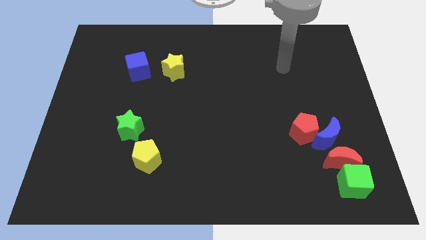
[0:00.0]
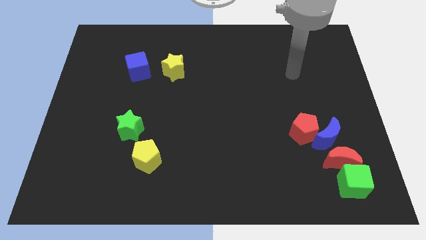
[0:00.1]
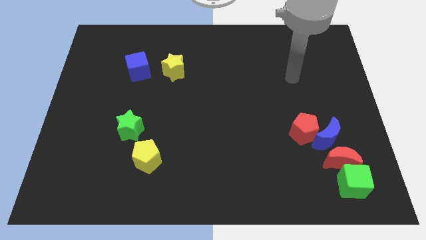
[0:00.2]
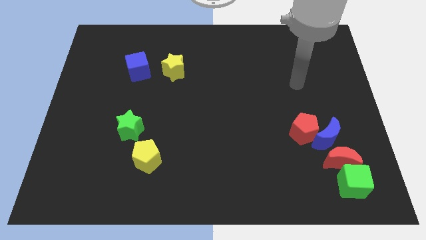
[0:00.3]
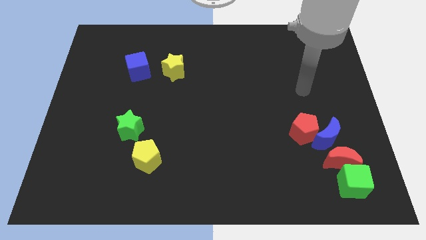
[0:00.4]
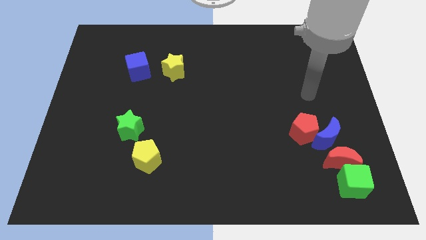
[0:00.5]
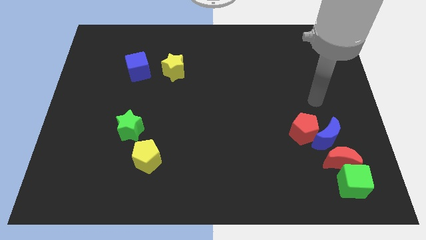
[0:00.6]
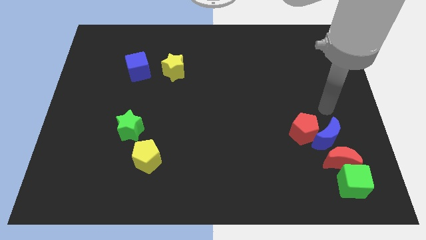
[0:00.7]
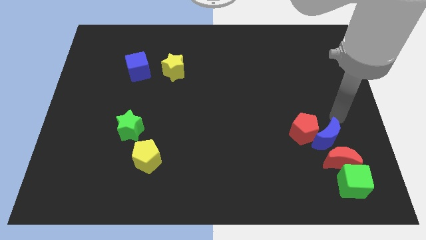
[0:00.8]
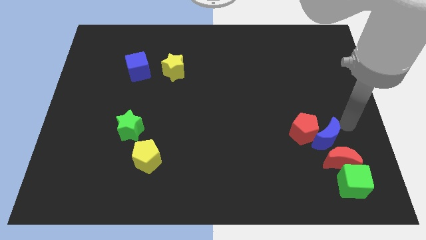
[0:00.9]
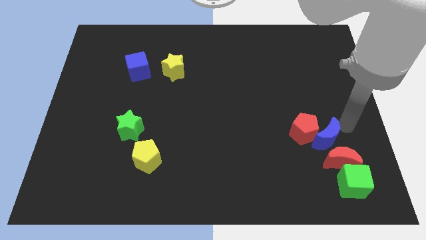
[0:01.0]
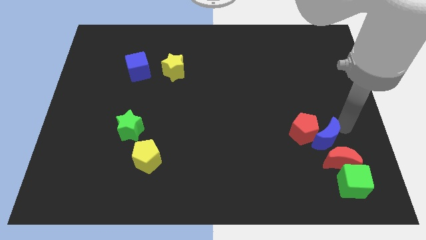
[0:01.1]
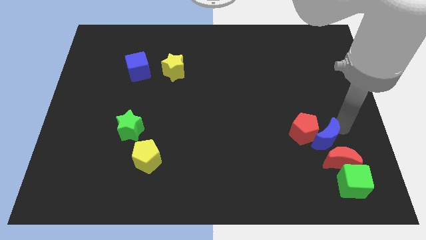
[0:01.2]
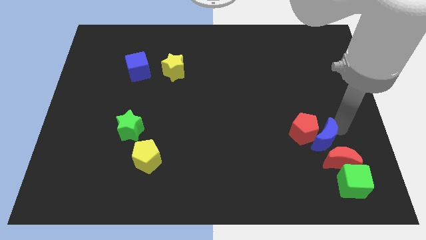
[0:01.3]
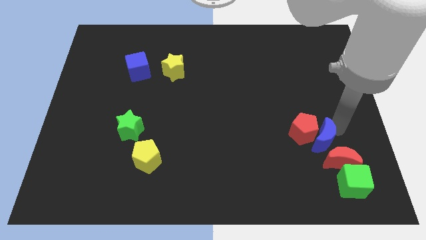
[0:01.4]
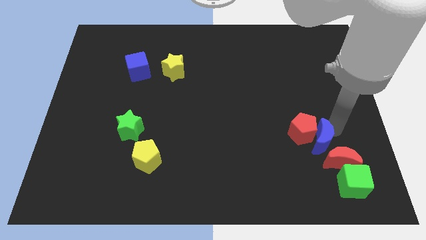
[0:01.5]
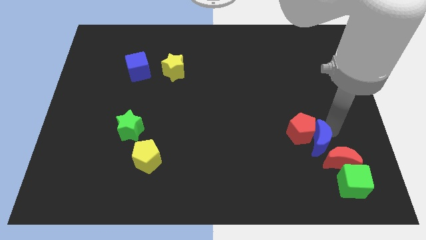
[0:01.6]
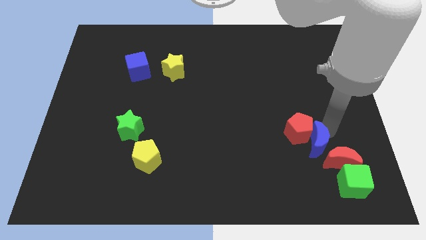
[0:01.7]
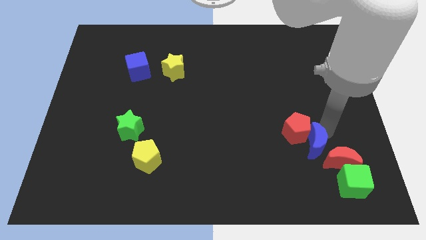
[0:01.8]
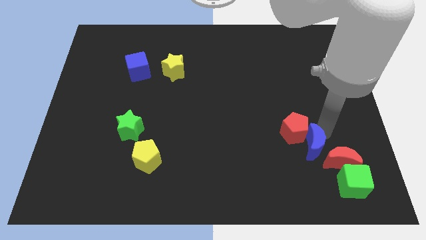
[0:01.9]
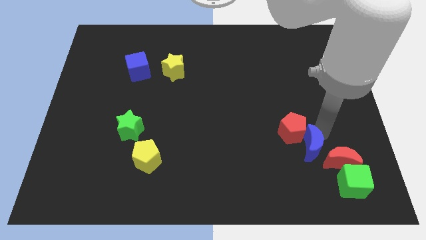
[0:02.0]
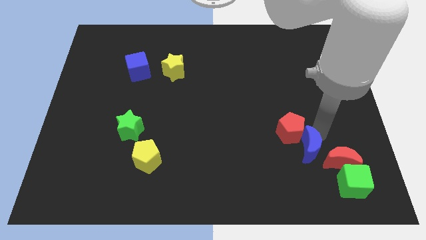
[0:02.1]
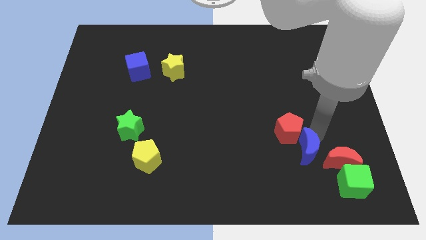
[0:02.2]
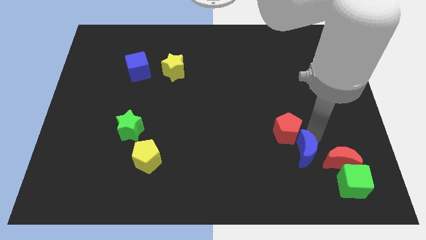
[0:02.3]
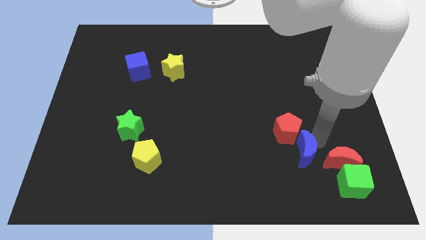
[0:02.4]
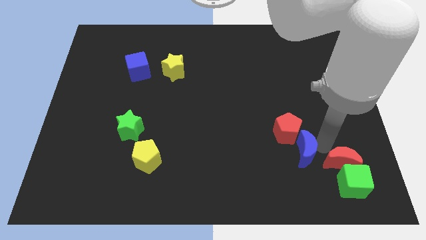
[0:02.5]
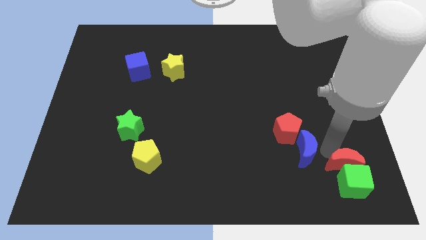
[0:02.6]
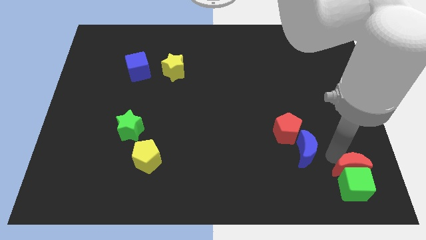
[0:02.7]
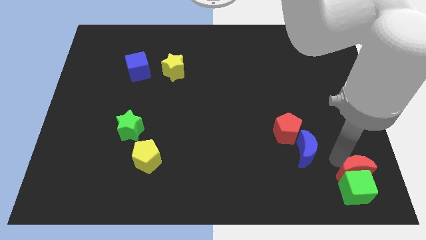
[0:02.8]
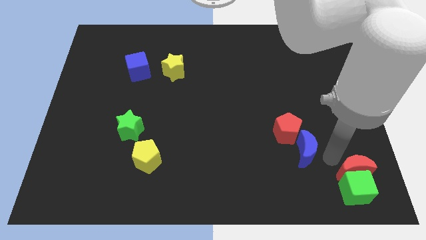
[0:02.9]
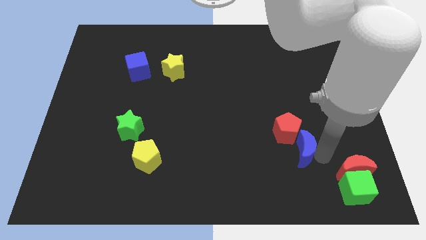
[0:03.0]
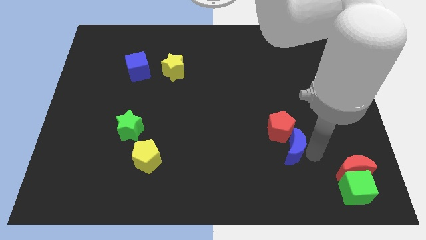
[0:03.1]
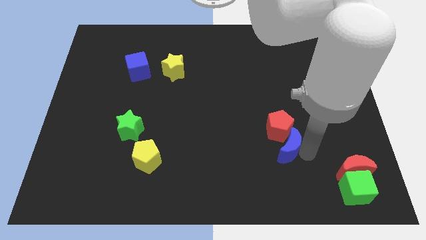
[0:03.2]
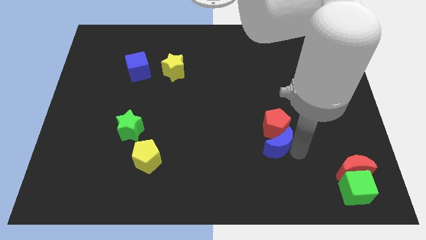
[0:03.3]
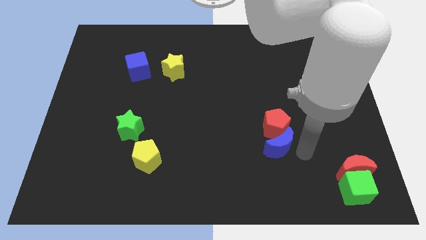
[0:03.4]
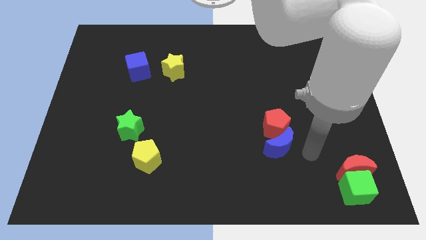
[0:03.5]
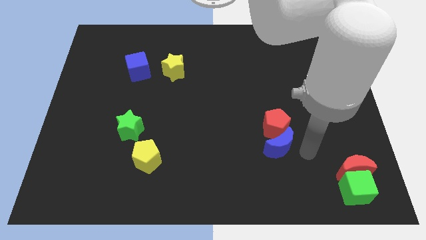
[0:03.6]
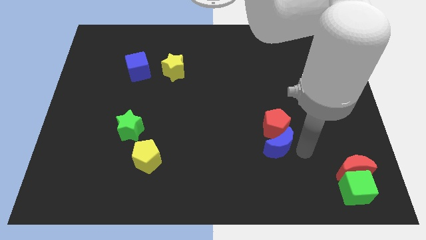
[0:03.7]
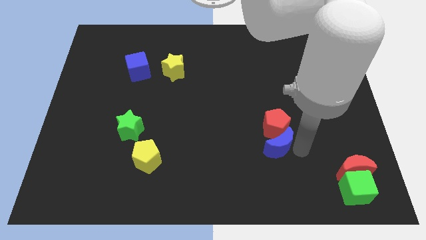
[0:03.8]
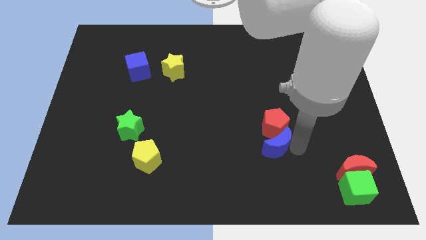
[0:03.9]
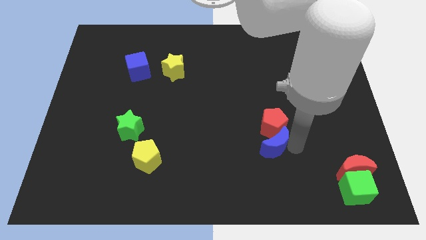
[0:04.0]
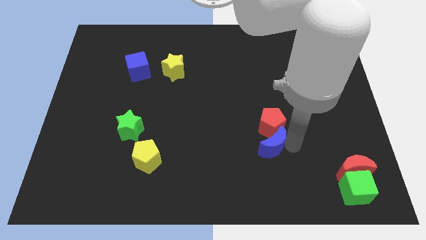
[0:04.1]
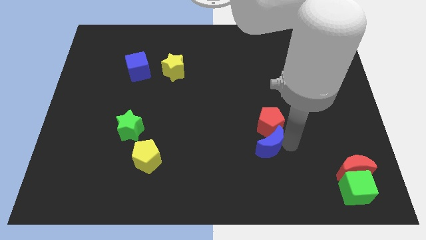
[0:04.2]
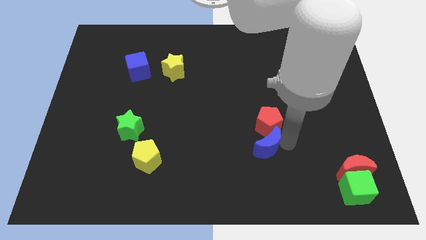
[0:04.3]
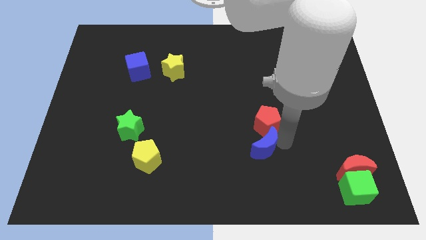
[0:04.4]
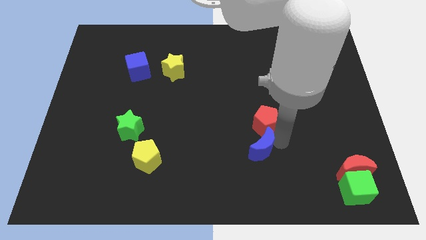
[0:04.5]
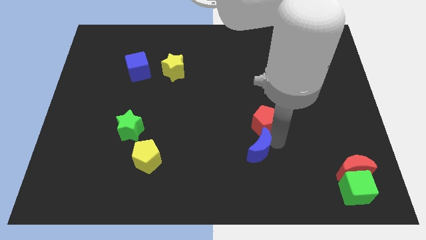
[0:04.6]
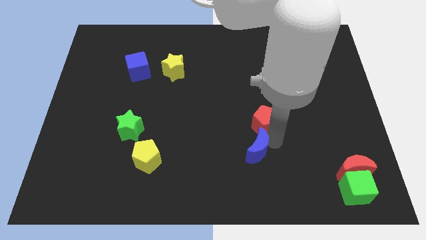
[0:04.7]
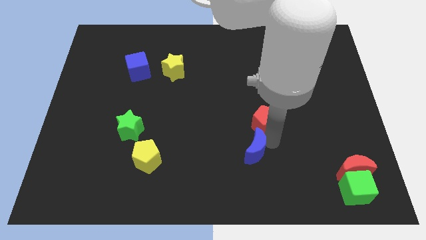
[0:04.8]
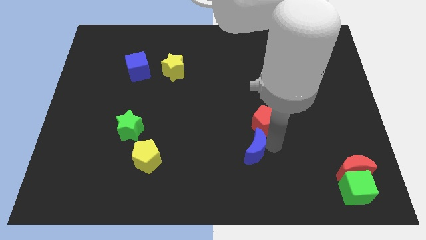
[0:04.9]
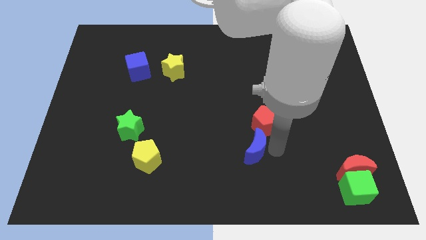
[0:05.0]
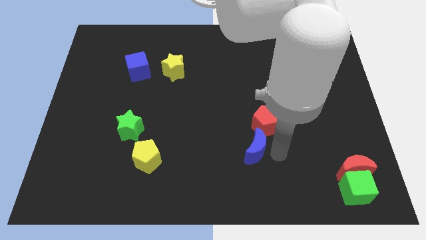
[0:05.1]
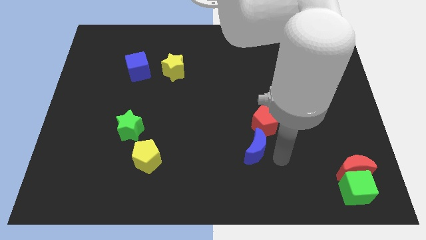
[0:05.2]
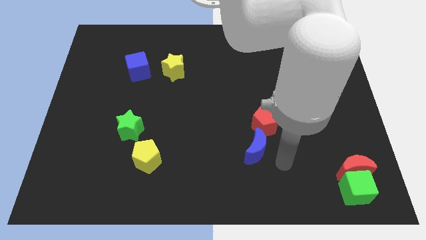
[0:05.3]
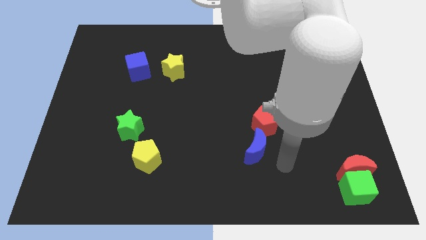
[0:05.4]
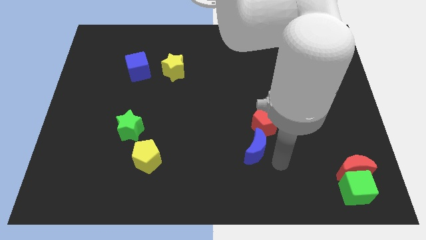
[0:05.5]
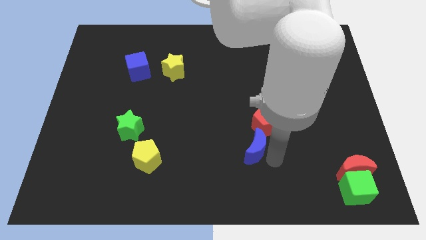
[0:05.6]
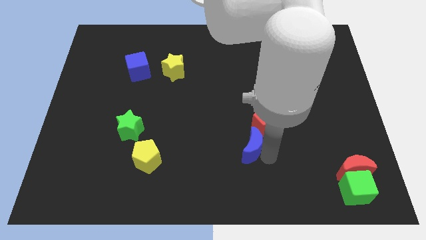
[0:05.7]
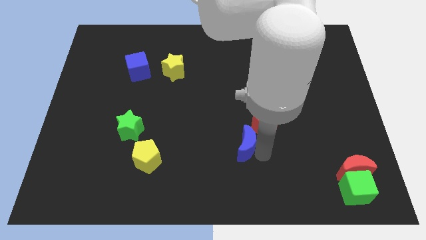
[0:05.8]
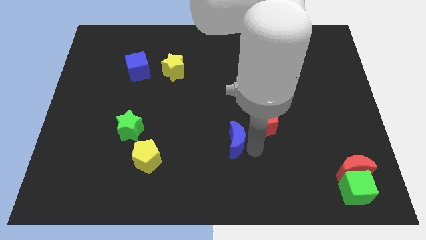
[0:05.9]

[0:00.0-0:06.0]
push the blue moon left

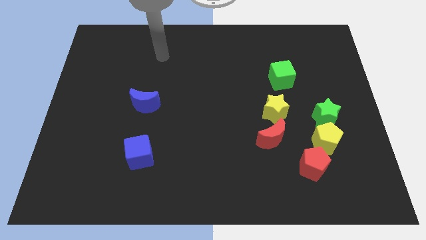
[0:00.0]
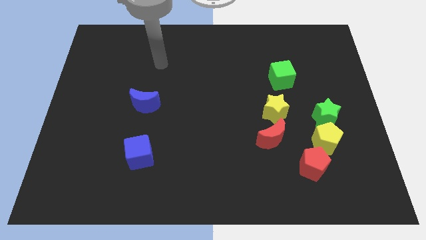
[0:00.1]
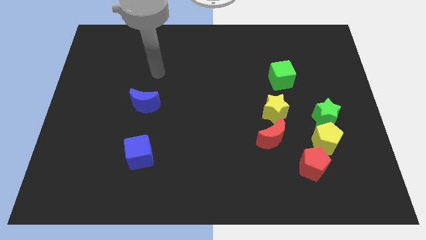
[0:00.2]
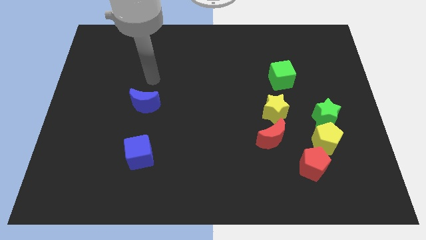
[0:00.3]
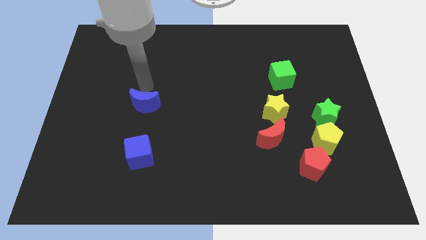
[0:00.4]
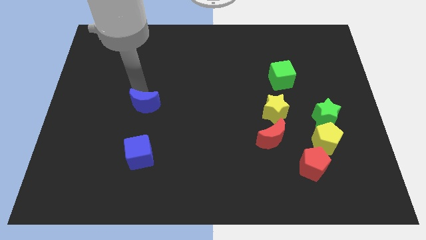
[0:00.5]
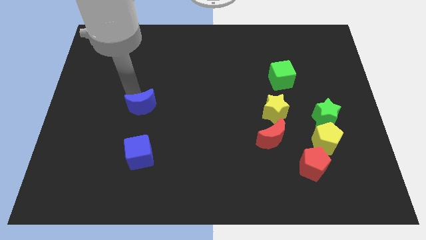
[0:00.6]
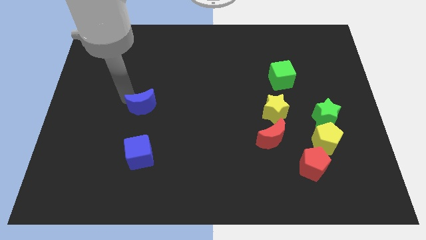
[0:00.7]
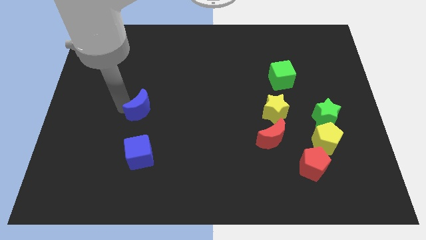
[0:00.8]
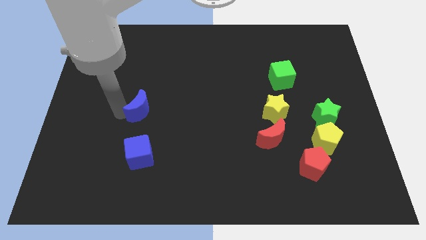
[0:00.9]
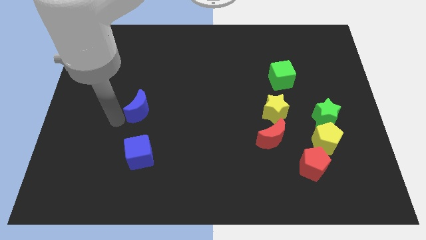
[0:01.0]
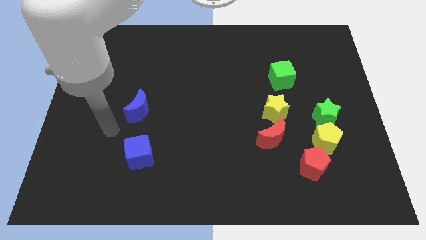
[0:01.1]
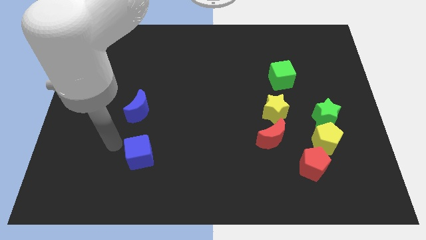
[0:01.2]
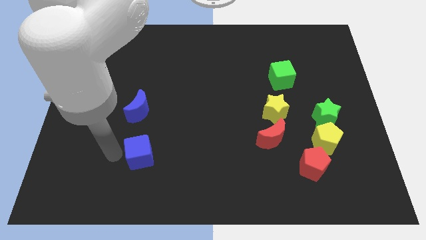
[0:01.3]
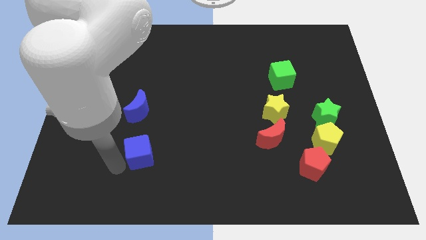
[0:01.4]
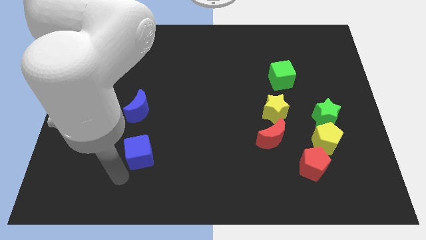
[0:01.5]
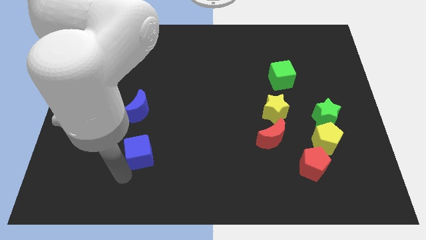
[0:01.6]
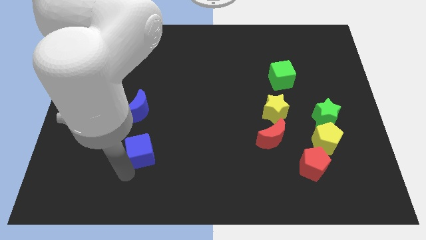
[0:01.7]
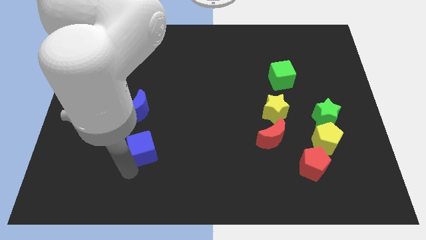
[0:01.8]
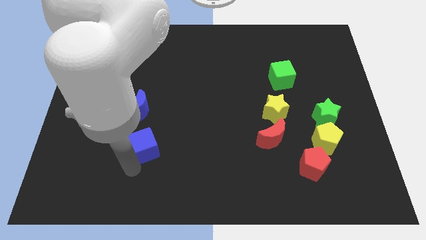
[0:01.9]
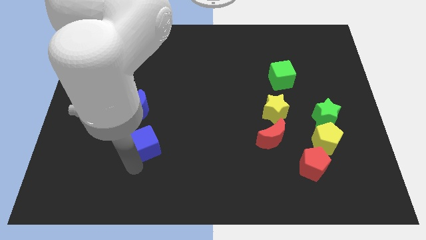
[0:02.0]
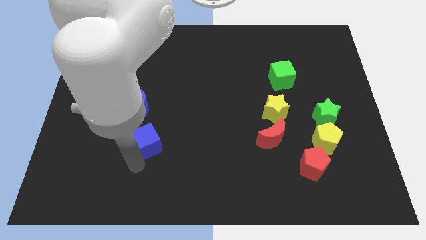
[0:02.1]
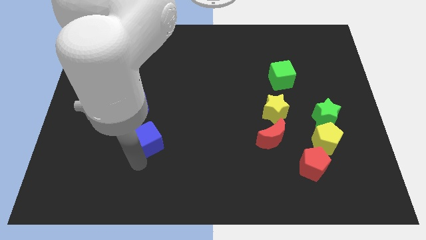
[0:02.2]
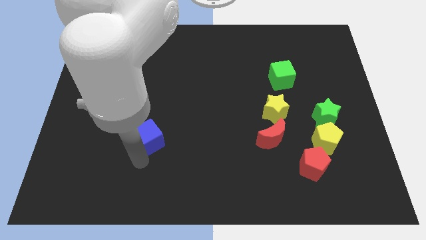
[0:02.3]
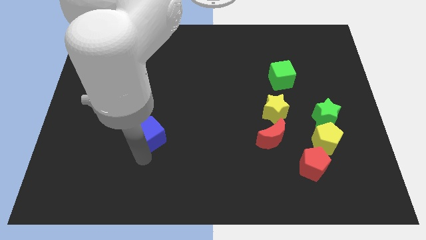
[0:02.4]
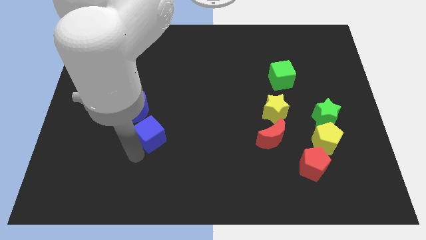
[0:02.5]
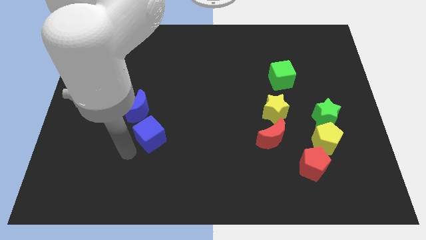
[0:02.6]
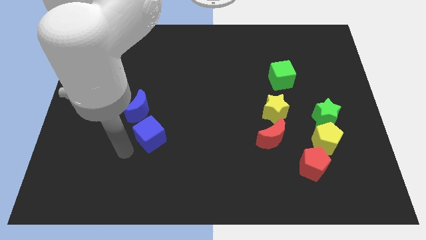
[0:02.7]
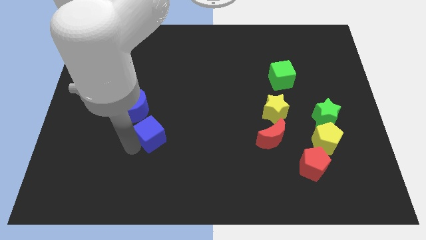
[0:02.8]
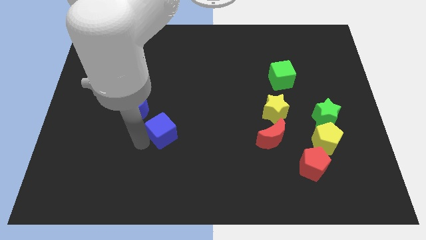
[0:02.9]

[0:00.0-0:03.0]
slide the blue cube a little up and right
